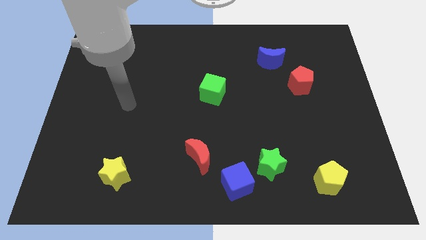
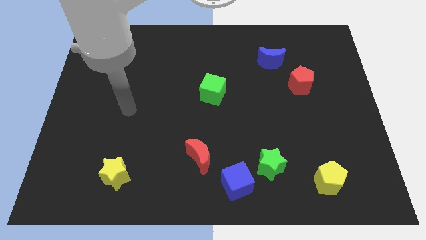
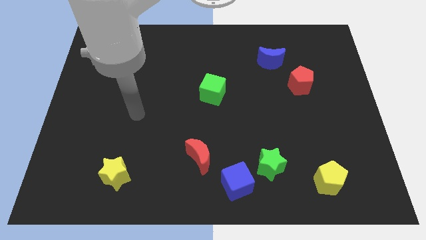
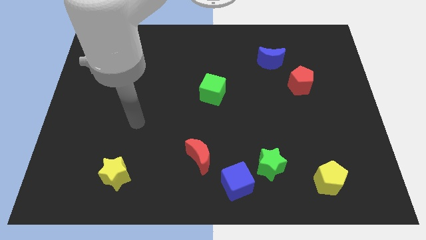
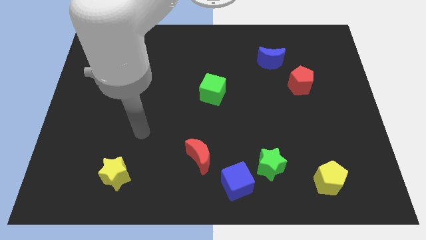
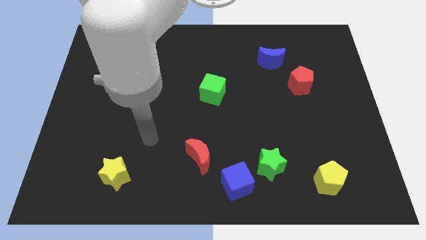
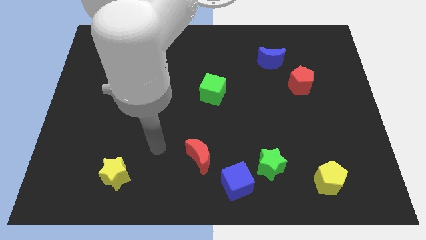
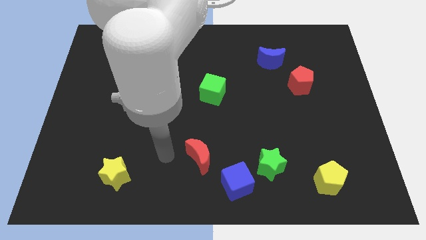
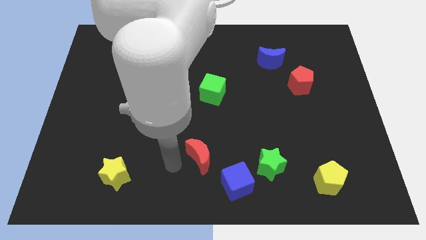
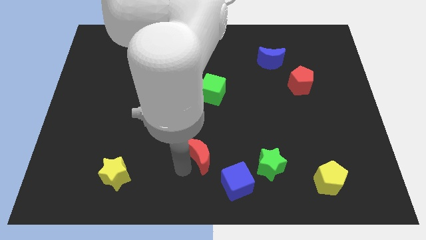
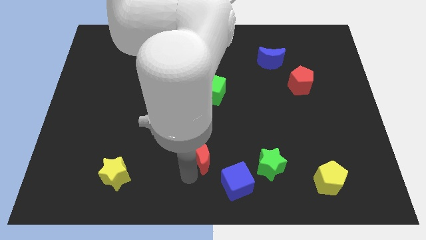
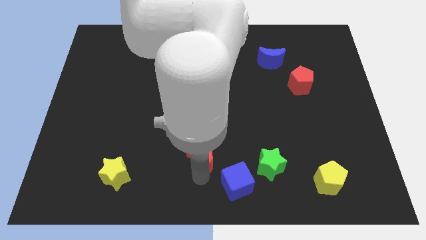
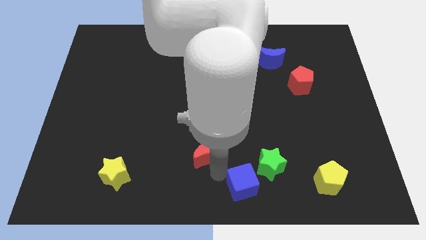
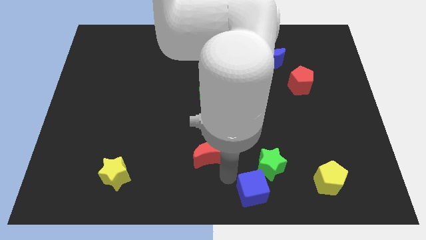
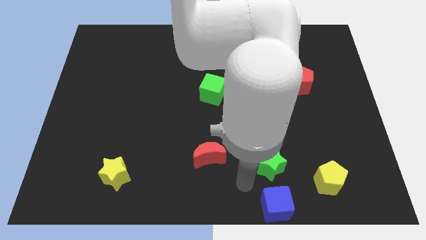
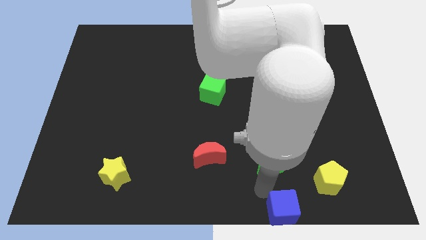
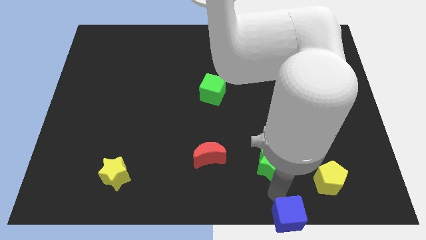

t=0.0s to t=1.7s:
separate the green star from the blue cube

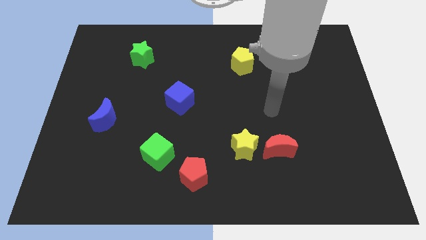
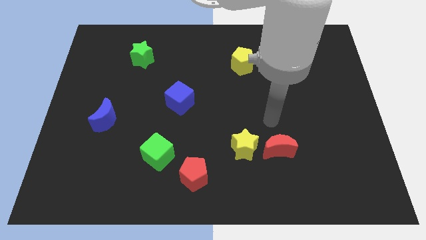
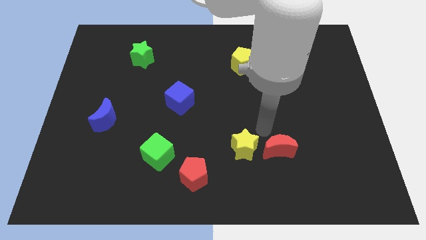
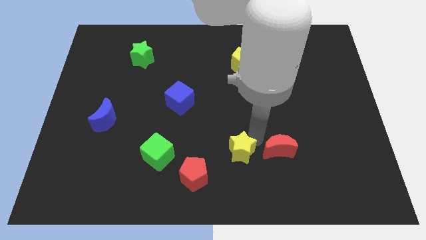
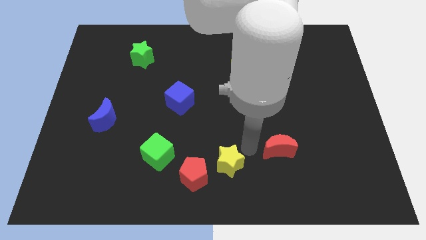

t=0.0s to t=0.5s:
separate the red moon from the yellow star

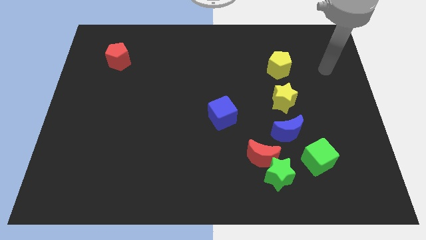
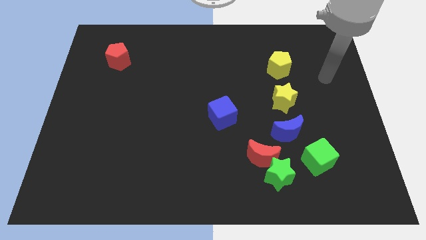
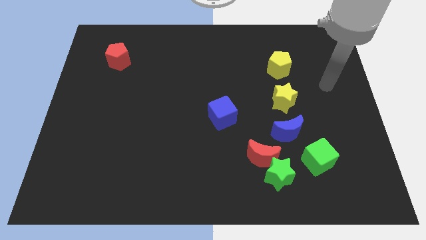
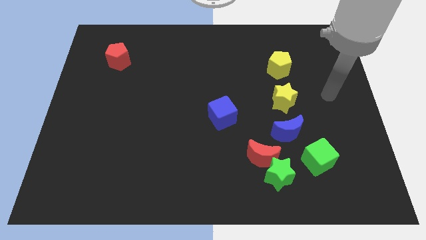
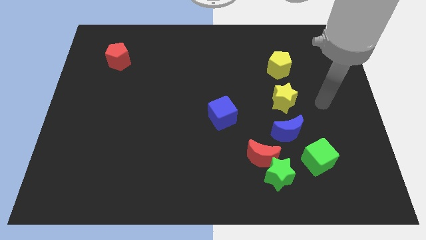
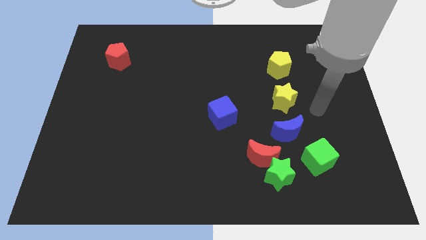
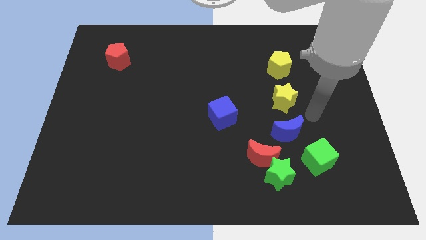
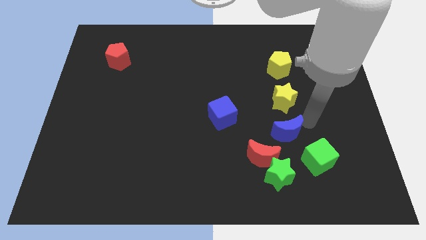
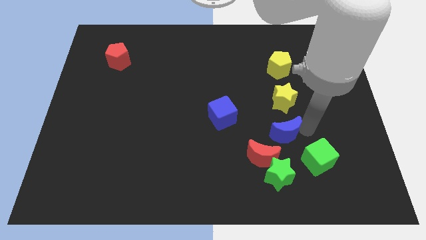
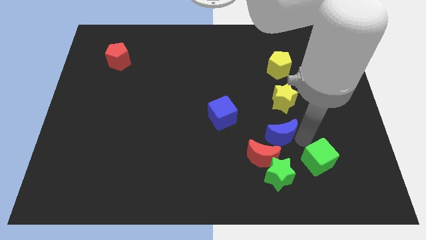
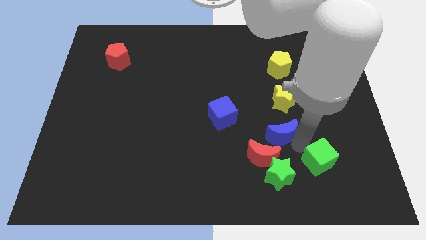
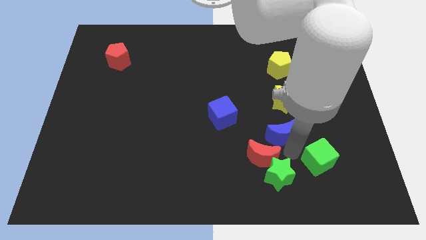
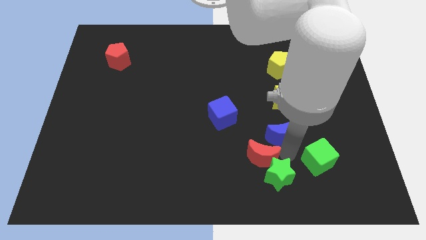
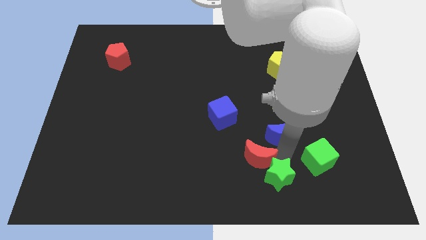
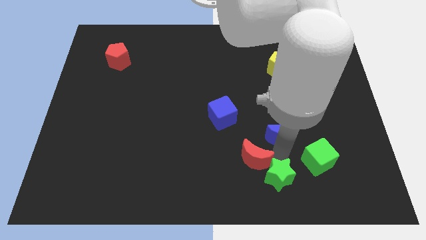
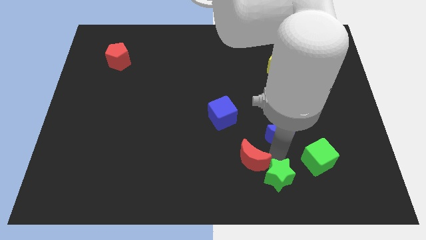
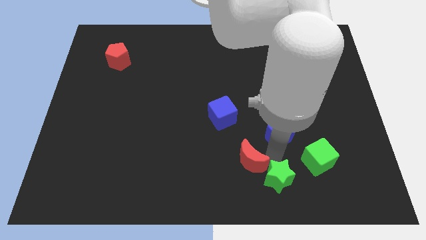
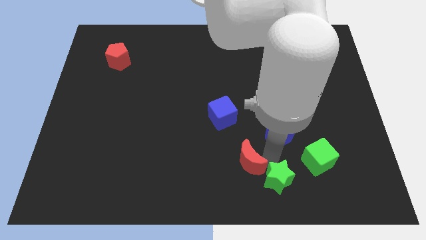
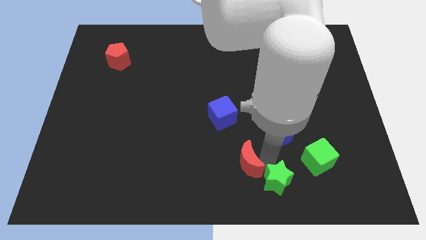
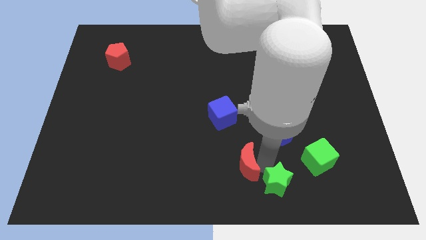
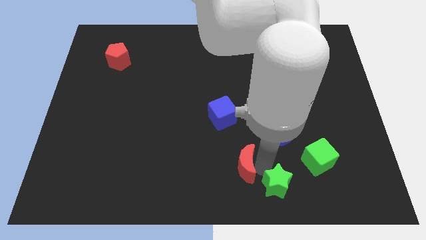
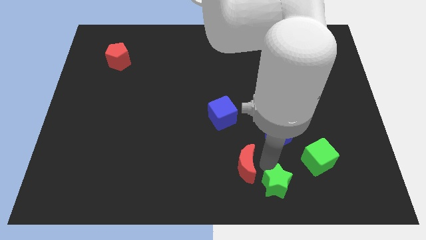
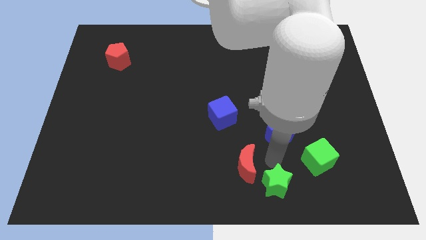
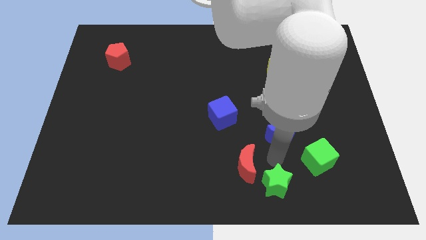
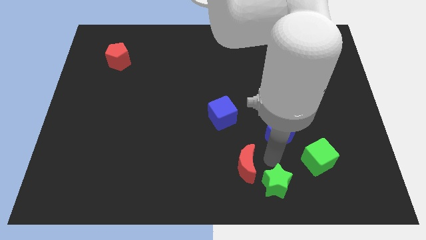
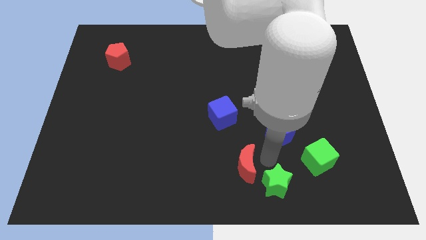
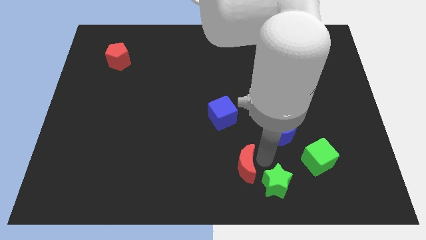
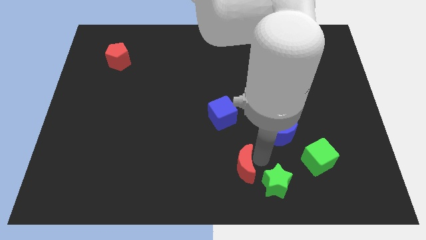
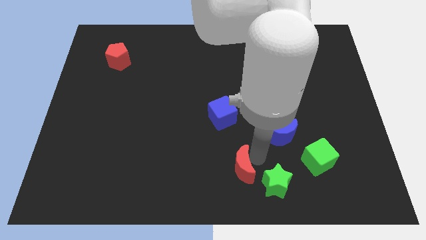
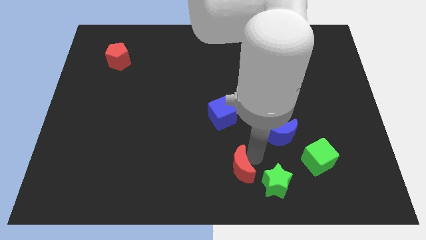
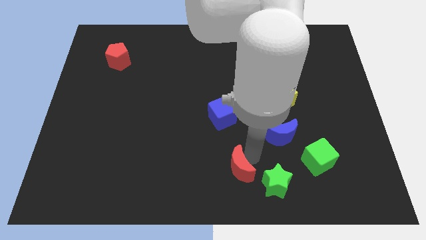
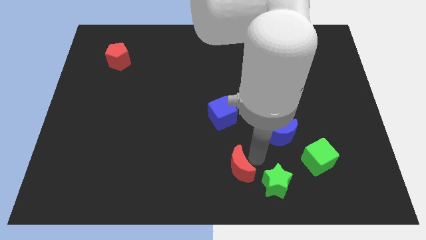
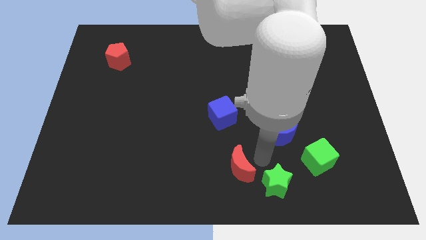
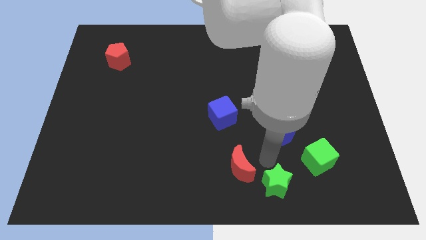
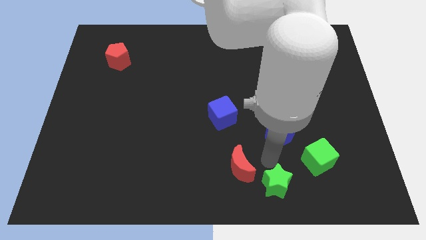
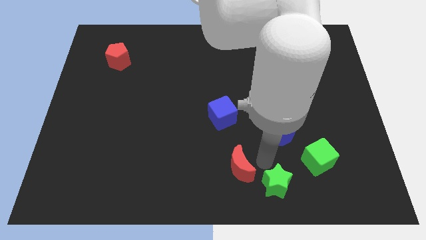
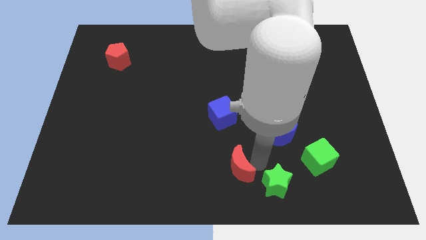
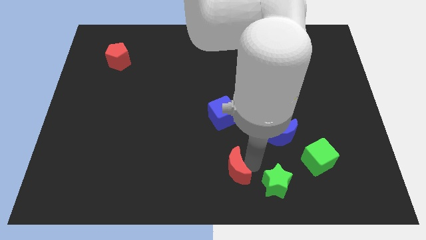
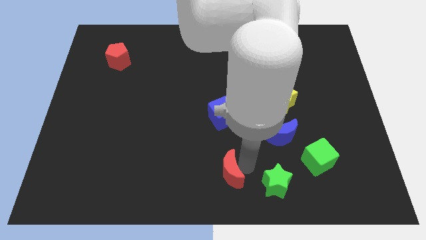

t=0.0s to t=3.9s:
separate the red moon from the green star and blue moon

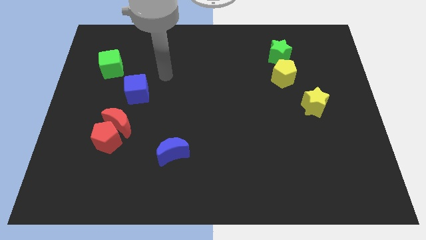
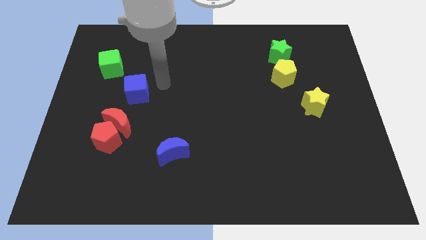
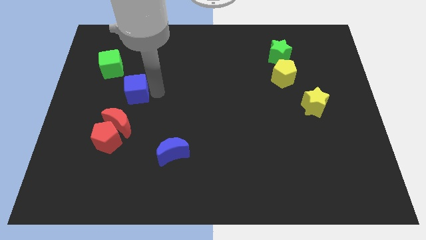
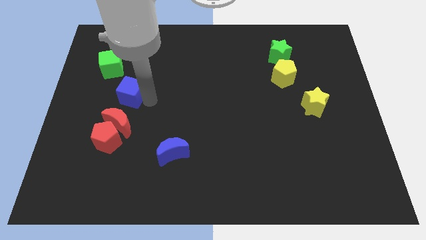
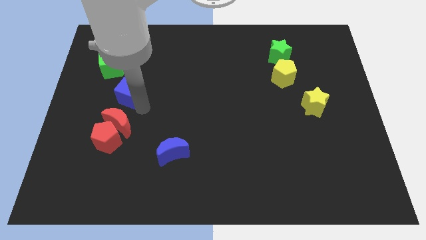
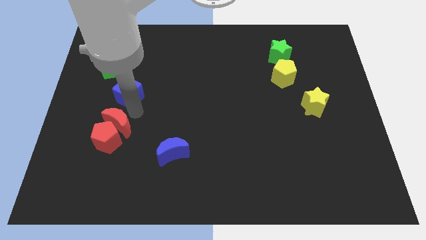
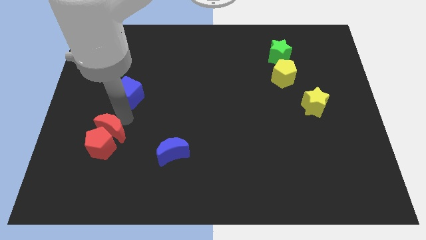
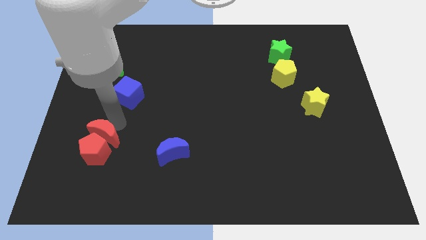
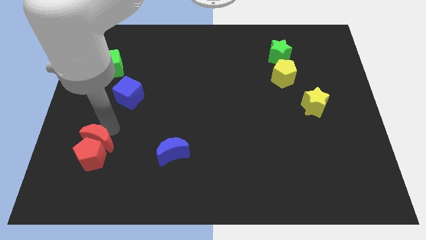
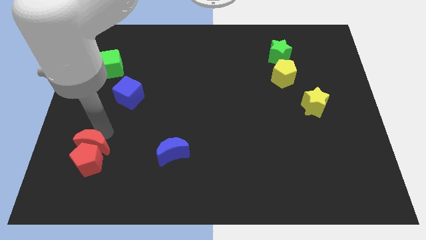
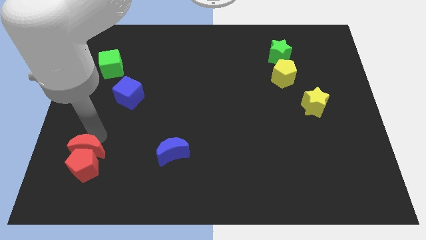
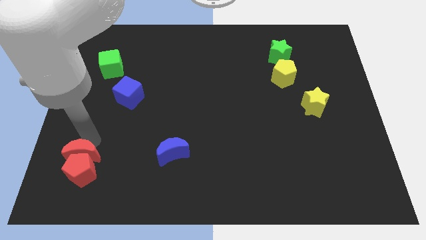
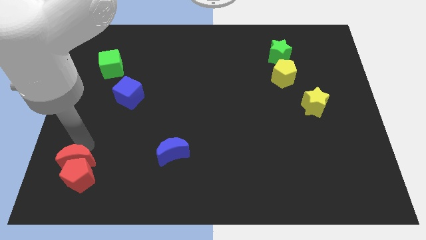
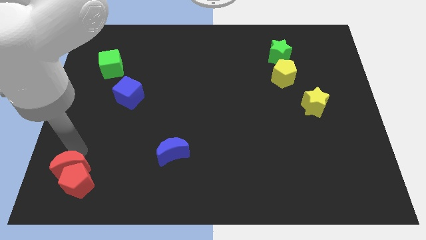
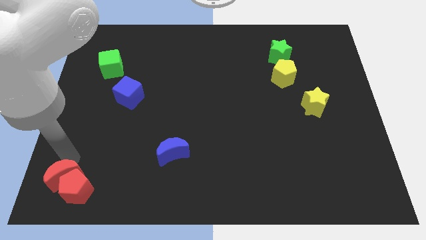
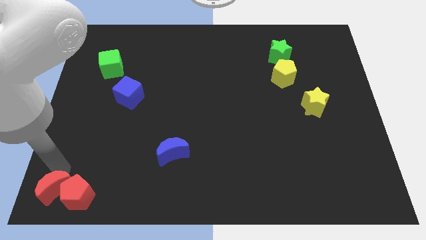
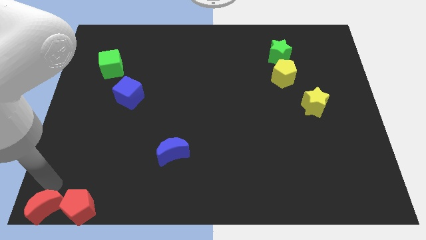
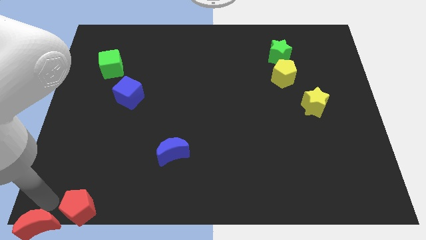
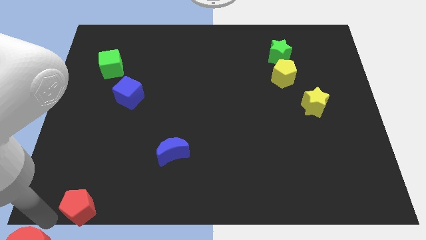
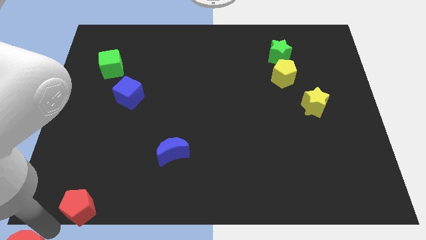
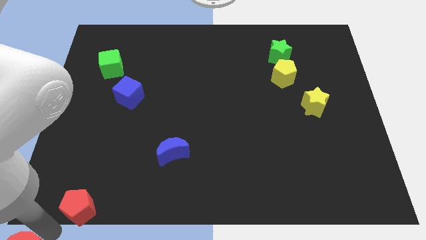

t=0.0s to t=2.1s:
move the red pentagon away from the red moon

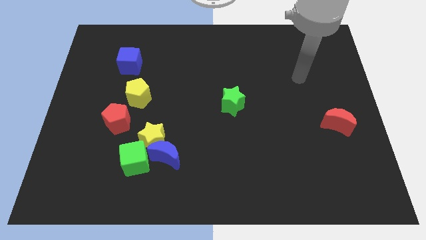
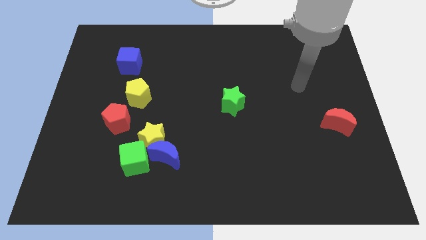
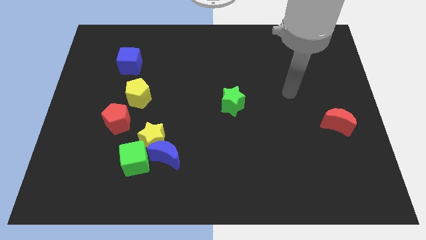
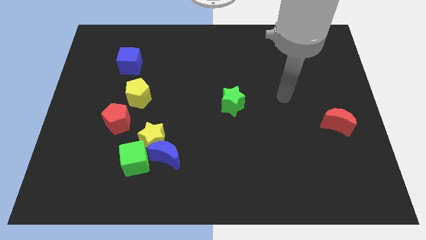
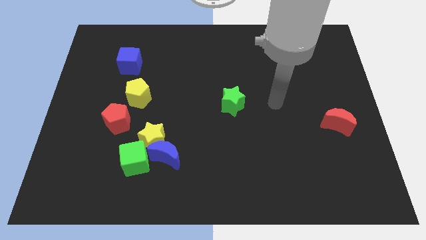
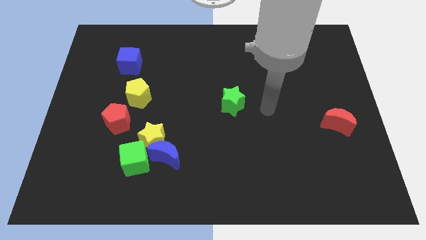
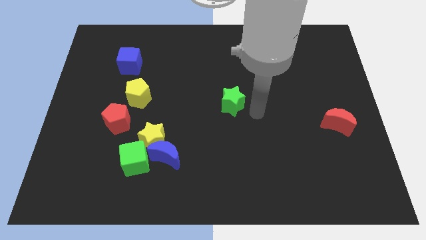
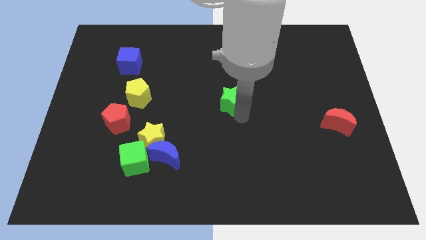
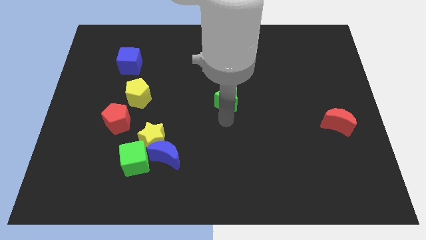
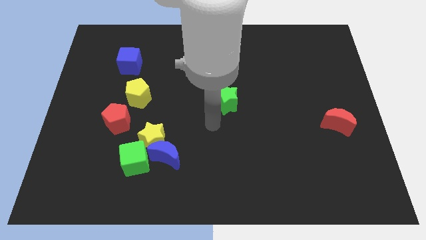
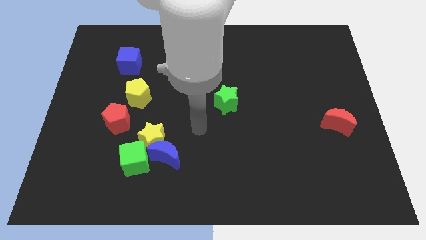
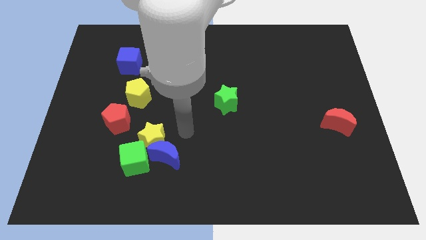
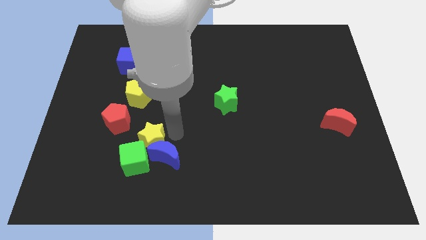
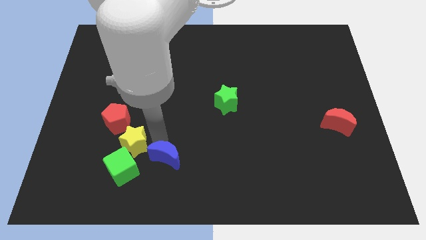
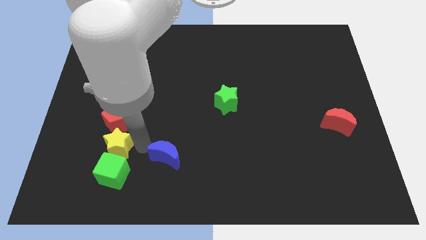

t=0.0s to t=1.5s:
separate the blue moon from the yellow star and green cube
